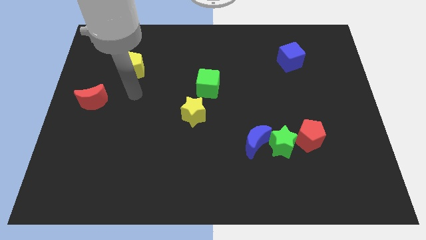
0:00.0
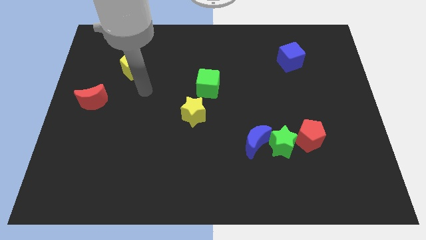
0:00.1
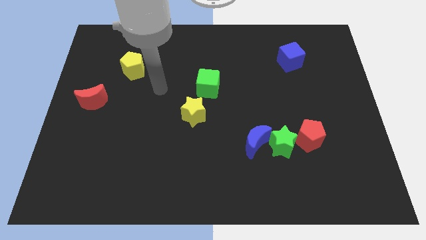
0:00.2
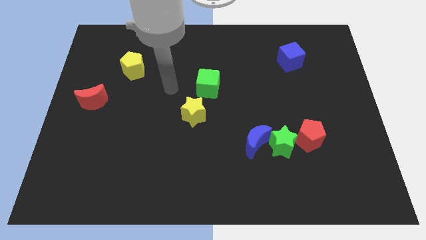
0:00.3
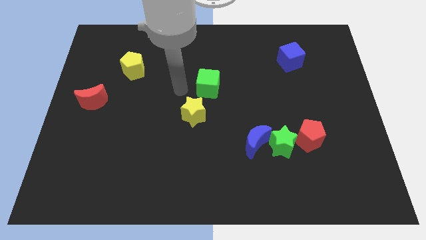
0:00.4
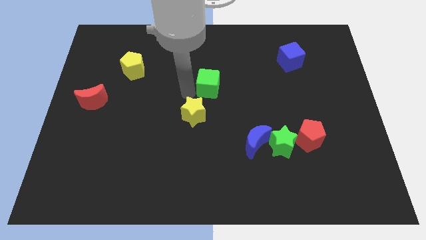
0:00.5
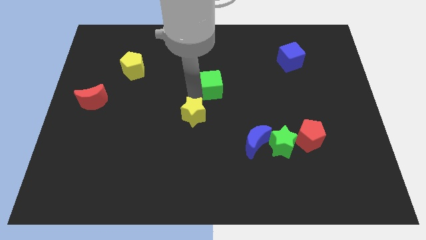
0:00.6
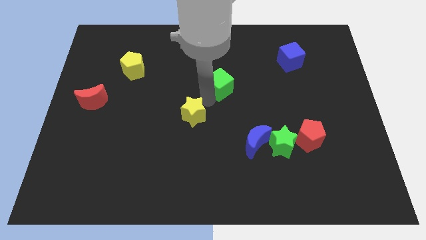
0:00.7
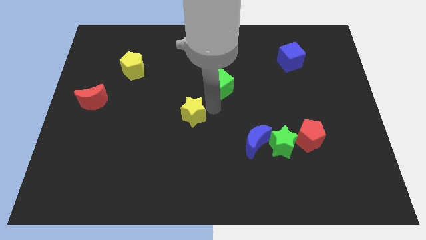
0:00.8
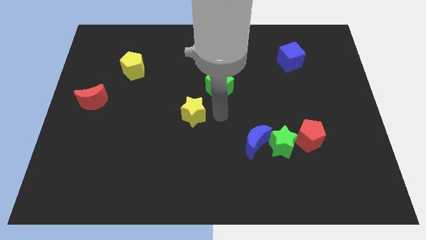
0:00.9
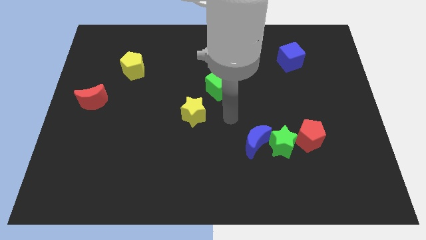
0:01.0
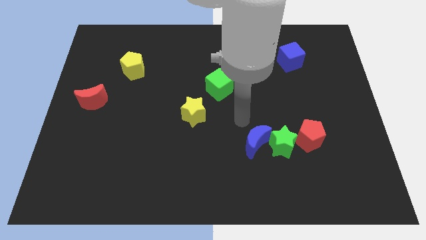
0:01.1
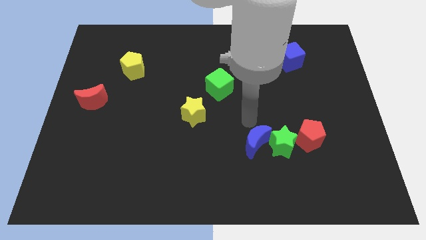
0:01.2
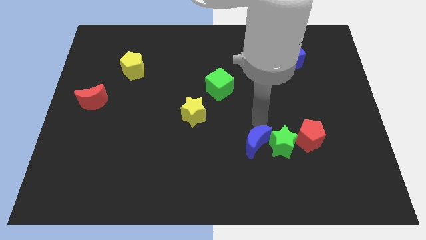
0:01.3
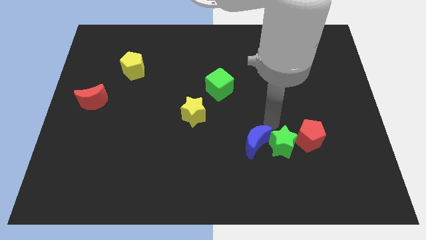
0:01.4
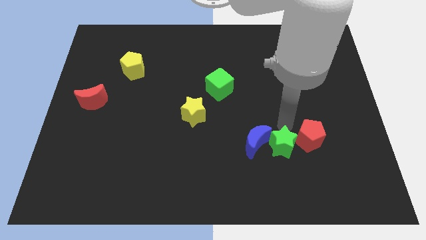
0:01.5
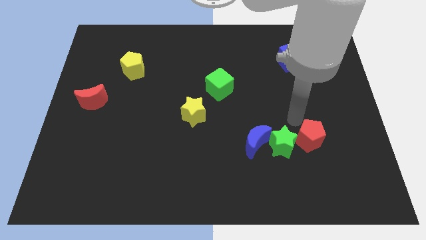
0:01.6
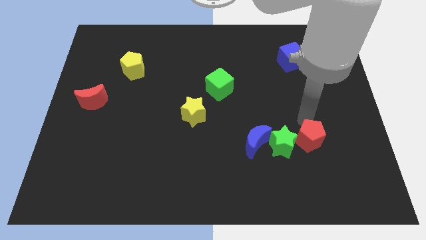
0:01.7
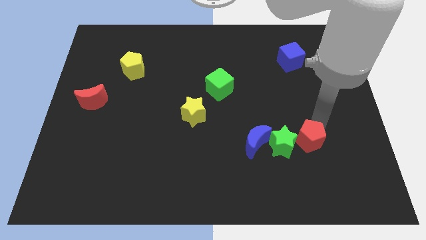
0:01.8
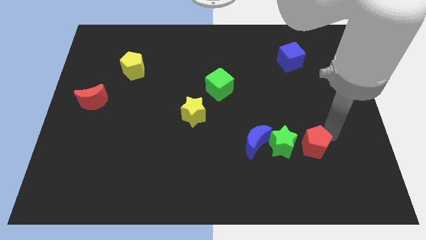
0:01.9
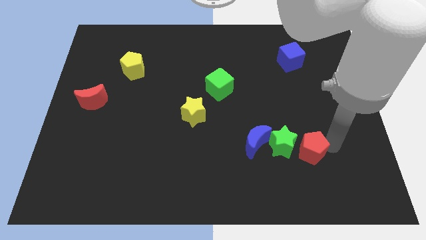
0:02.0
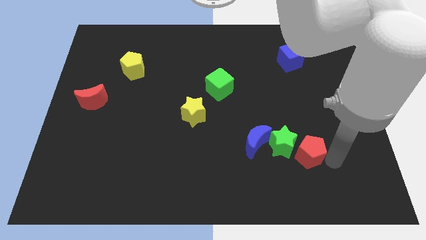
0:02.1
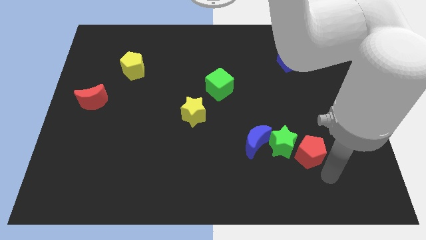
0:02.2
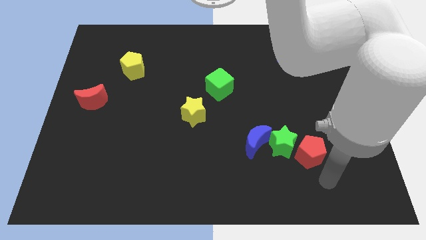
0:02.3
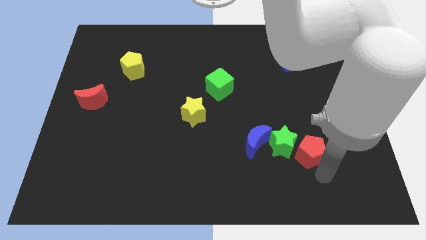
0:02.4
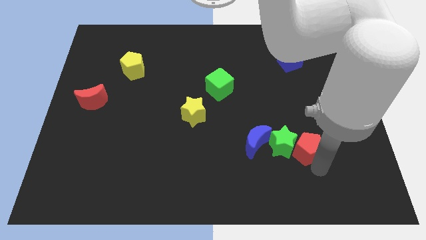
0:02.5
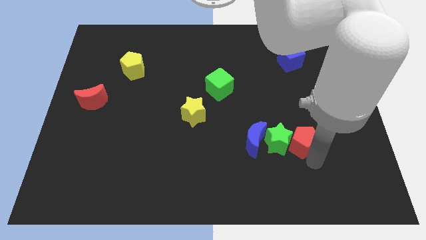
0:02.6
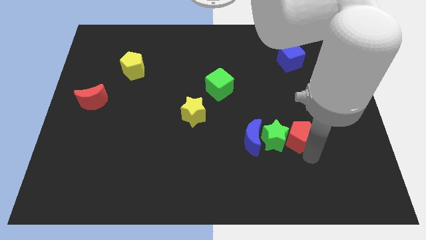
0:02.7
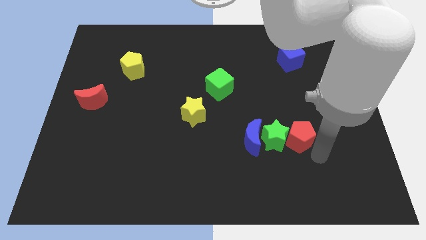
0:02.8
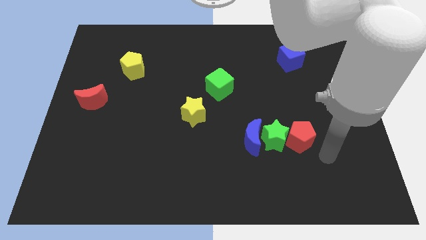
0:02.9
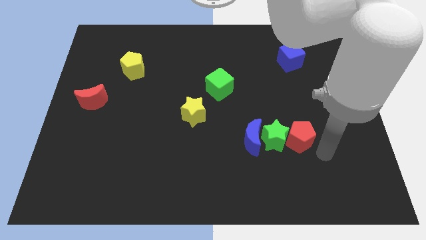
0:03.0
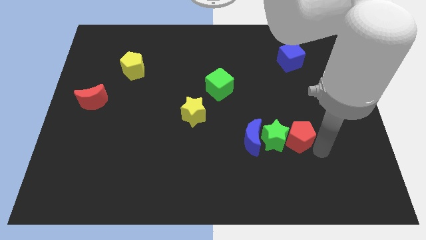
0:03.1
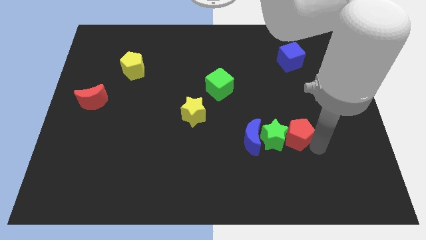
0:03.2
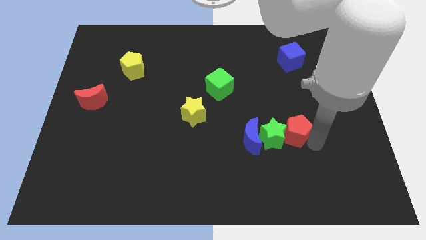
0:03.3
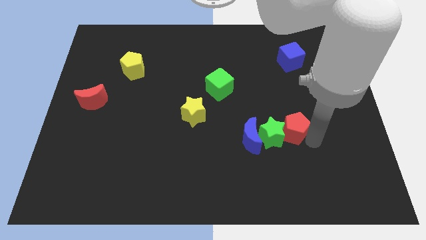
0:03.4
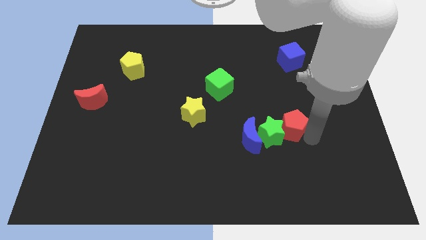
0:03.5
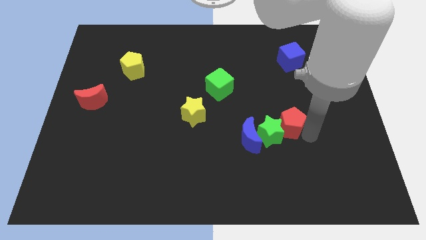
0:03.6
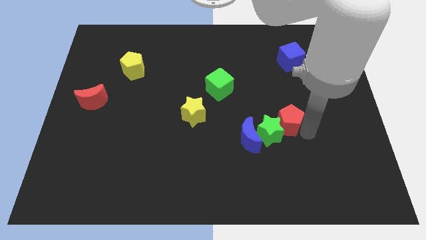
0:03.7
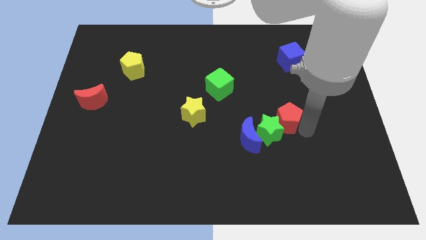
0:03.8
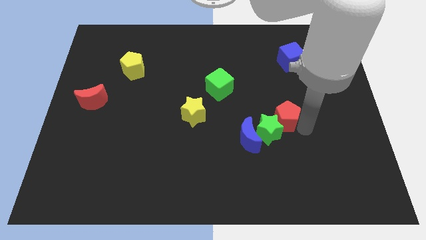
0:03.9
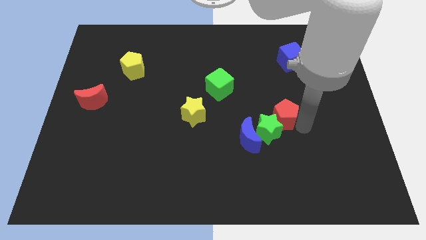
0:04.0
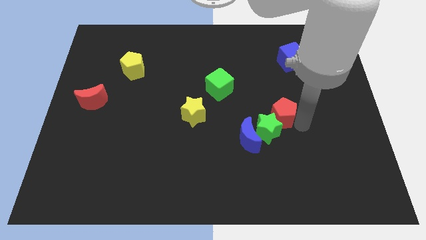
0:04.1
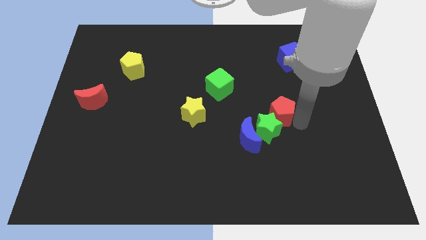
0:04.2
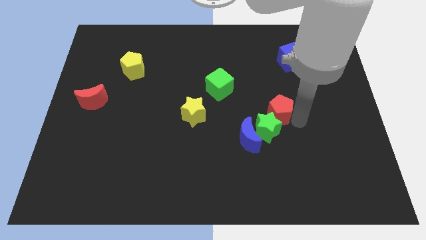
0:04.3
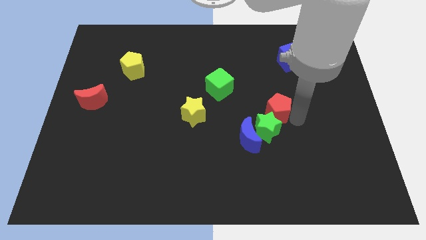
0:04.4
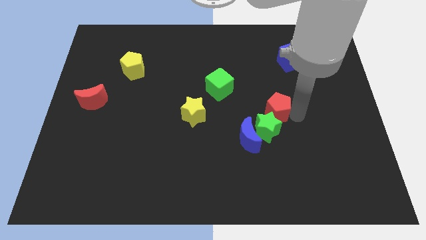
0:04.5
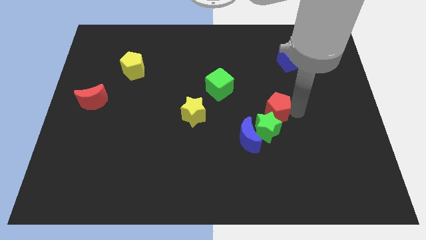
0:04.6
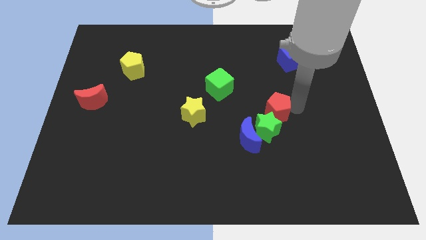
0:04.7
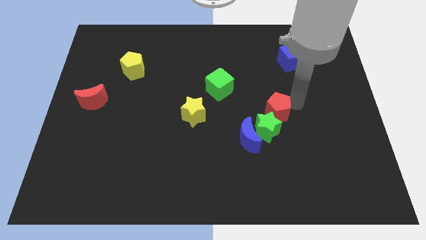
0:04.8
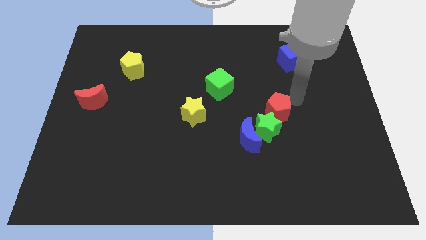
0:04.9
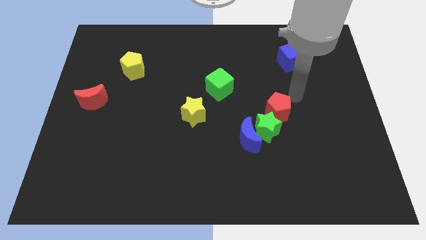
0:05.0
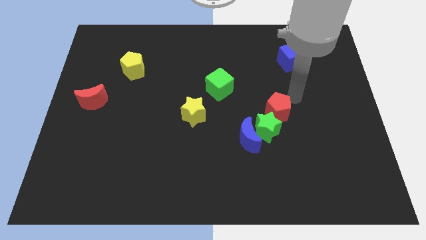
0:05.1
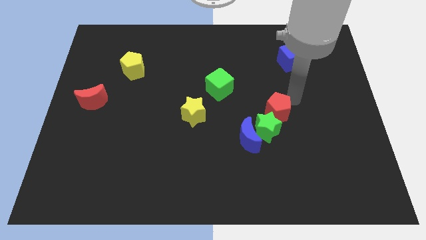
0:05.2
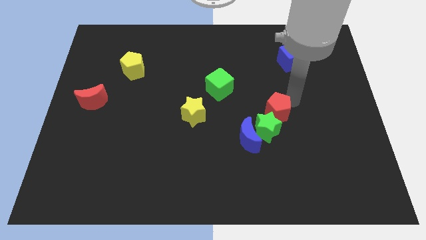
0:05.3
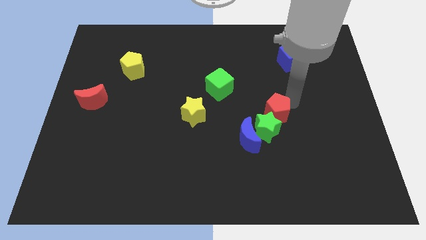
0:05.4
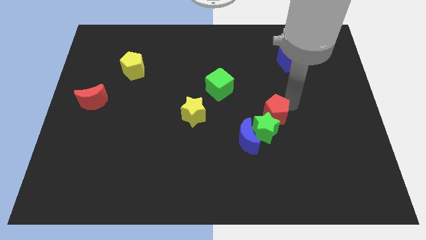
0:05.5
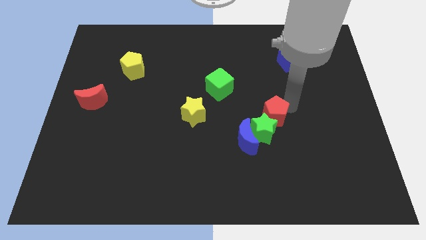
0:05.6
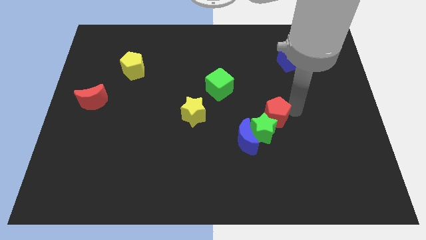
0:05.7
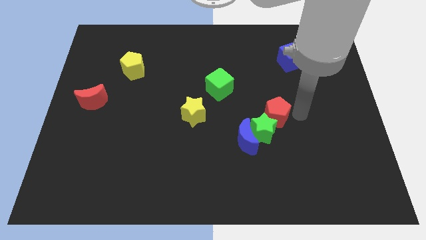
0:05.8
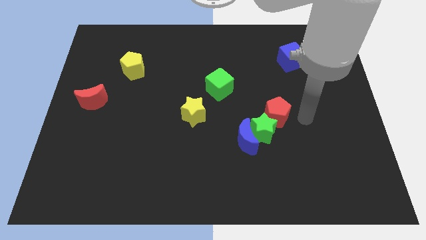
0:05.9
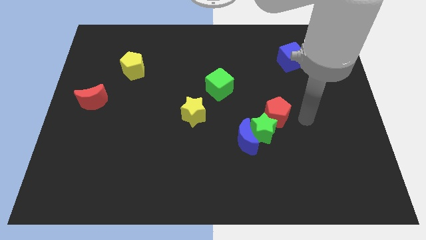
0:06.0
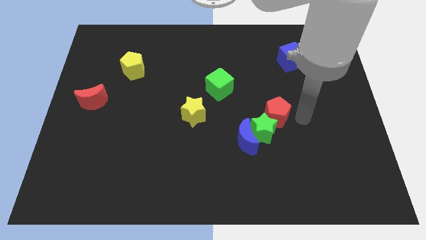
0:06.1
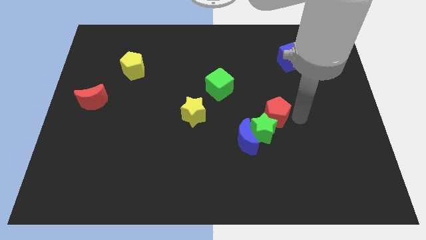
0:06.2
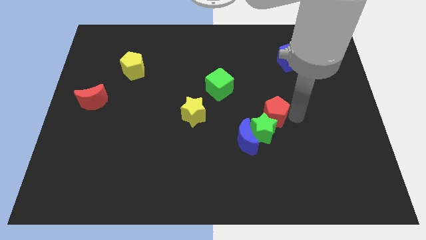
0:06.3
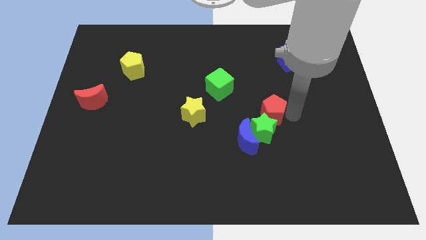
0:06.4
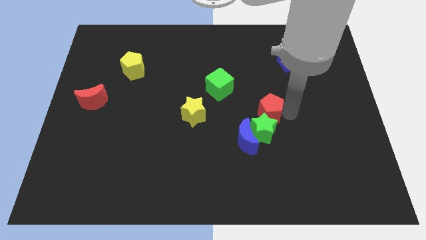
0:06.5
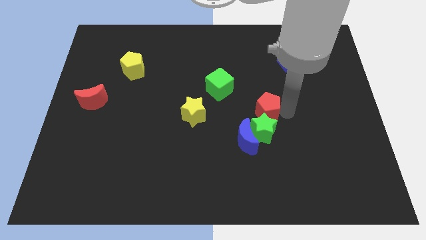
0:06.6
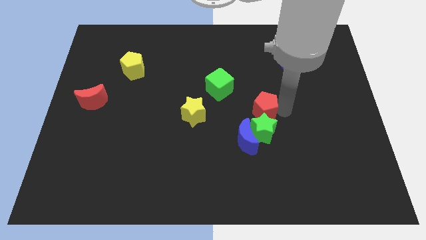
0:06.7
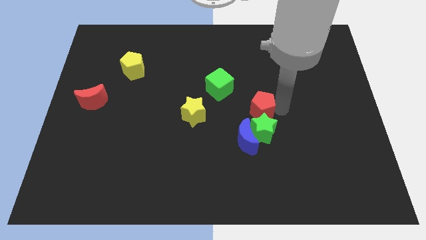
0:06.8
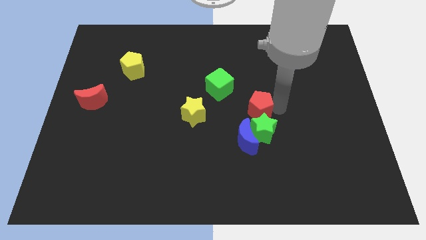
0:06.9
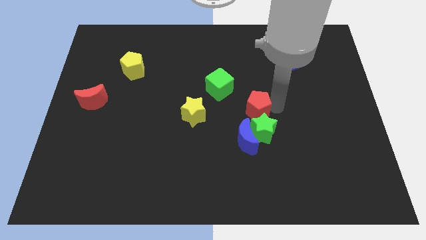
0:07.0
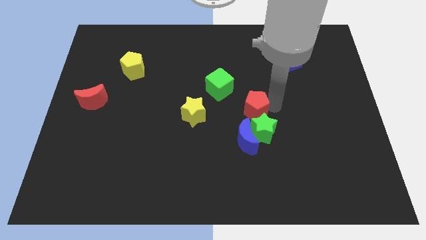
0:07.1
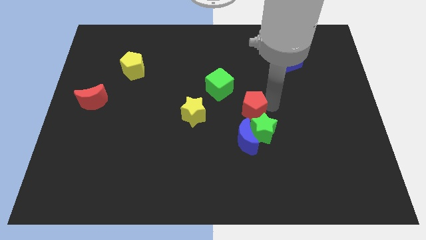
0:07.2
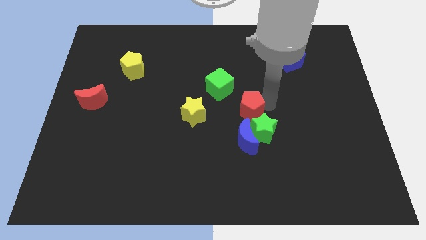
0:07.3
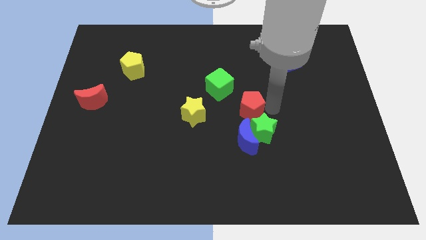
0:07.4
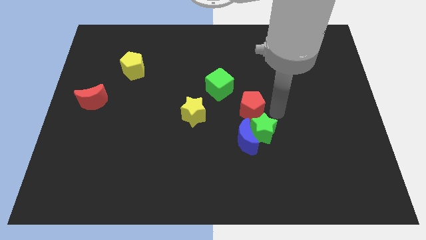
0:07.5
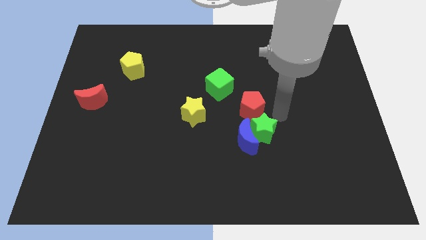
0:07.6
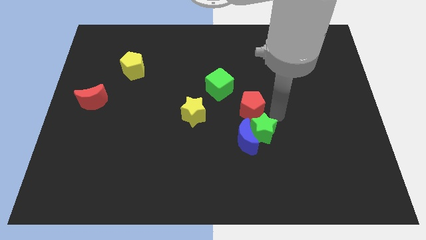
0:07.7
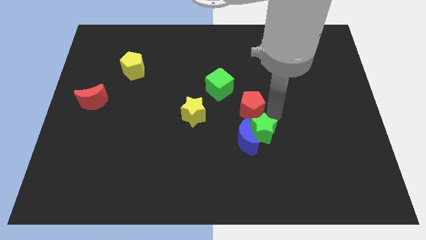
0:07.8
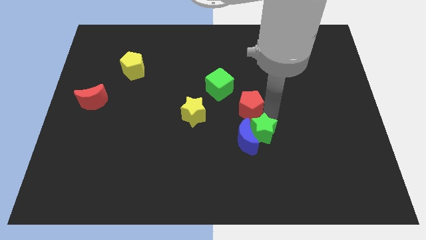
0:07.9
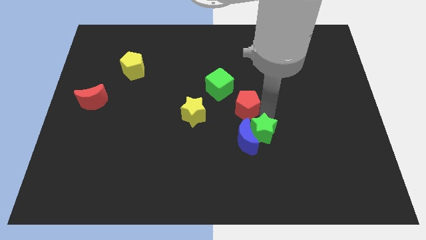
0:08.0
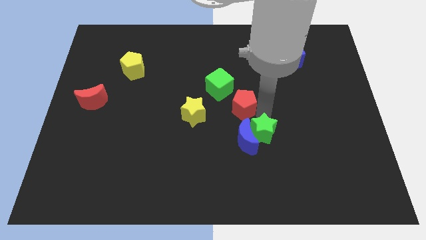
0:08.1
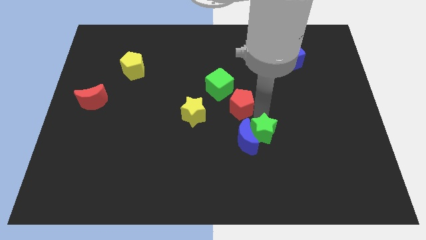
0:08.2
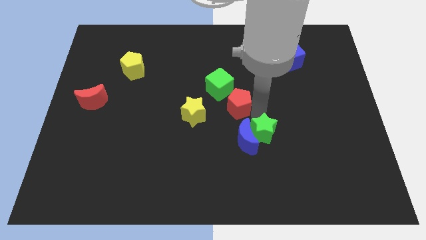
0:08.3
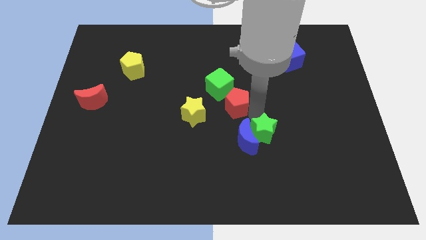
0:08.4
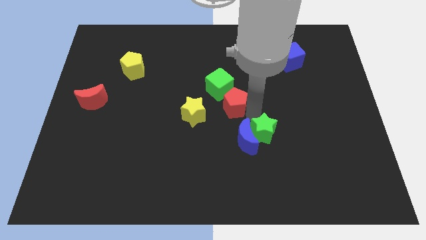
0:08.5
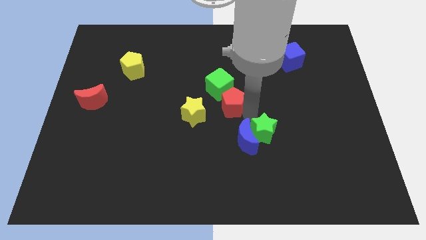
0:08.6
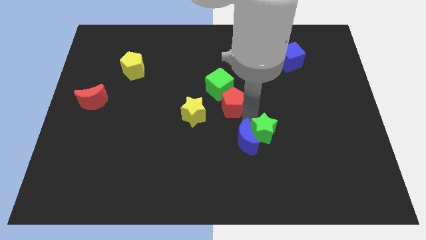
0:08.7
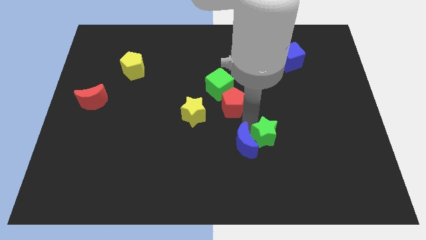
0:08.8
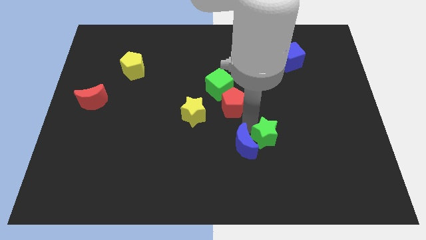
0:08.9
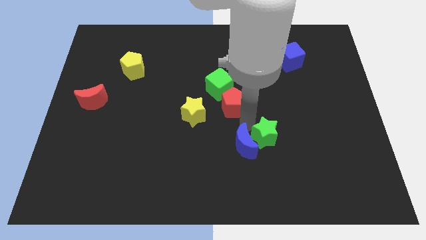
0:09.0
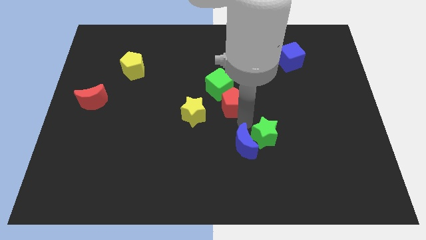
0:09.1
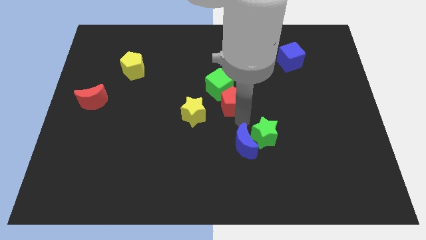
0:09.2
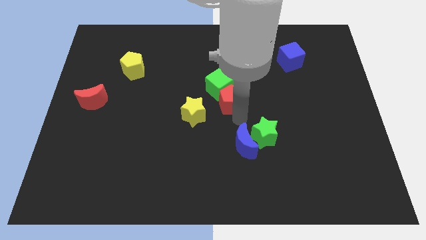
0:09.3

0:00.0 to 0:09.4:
push the red pentagon to the green cube
